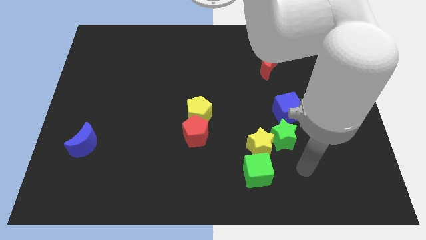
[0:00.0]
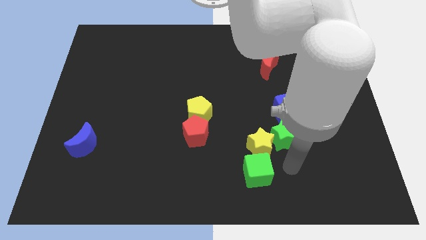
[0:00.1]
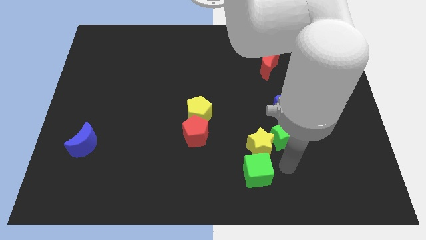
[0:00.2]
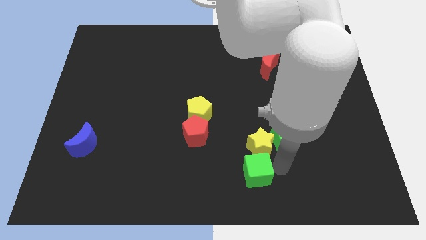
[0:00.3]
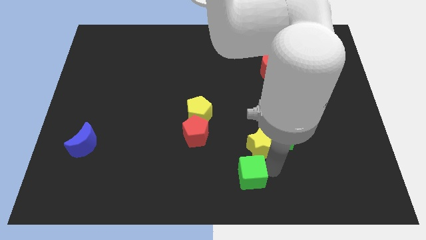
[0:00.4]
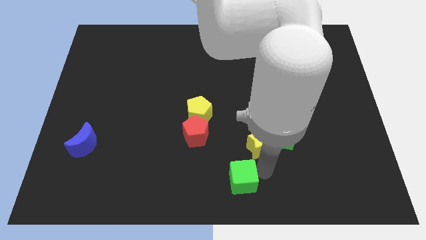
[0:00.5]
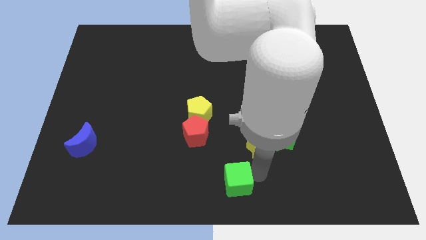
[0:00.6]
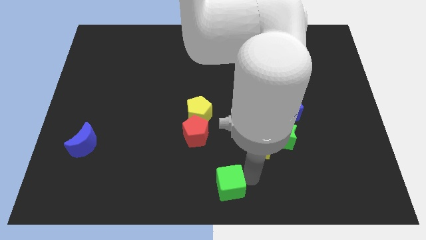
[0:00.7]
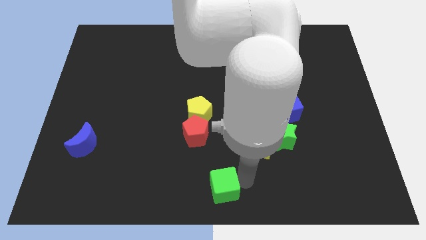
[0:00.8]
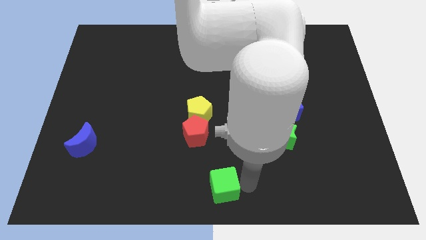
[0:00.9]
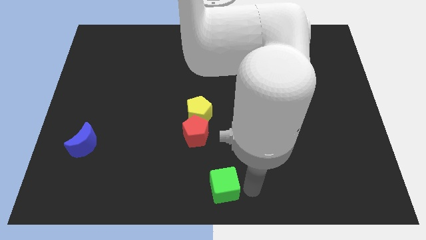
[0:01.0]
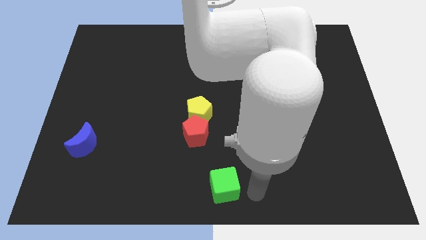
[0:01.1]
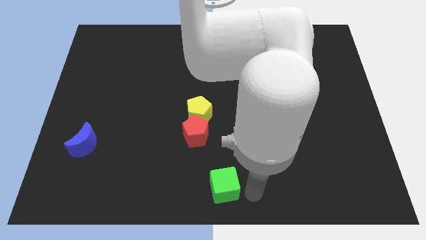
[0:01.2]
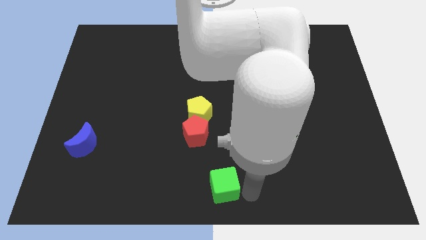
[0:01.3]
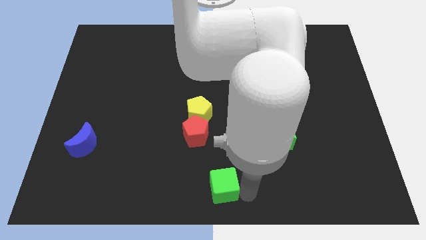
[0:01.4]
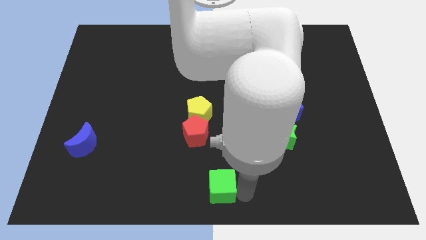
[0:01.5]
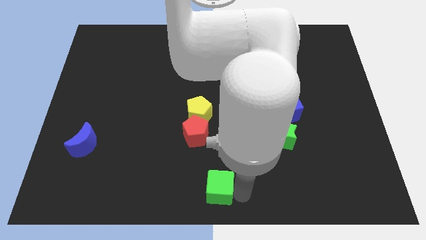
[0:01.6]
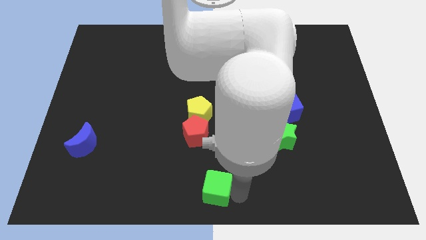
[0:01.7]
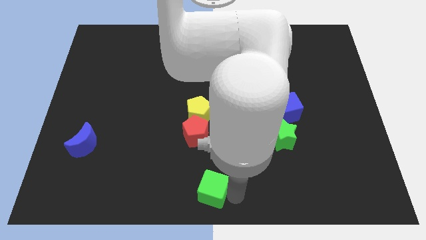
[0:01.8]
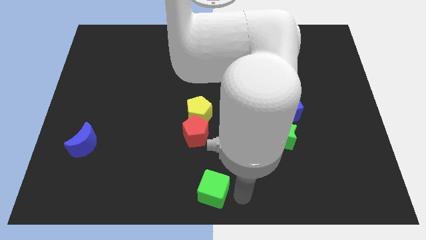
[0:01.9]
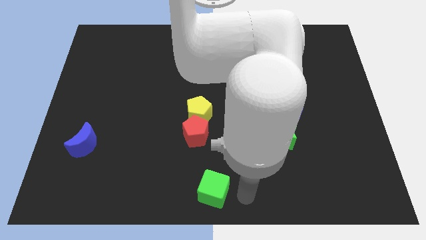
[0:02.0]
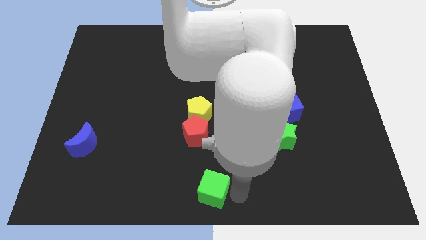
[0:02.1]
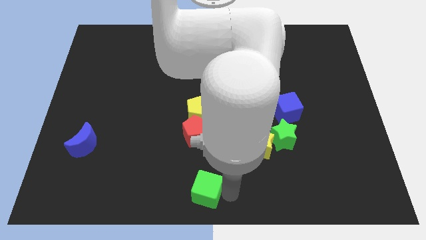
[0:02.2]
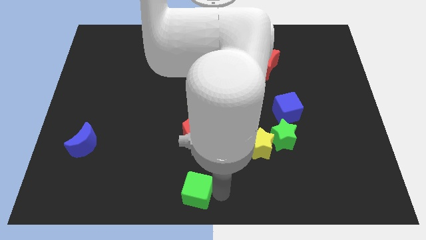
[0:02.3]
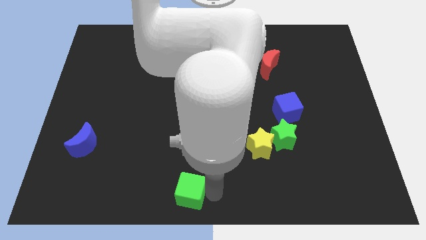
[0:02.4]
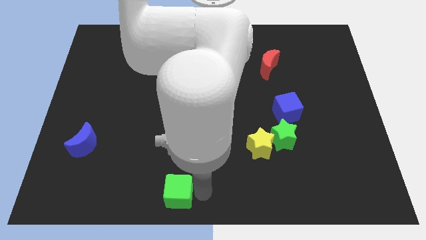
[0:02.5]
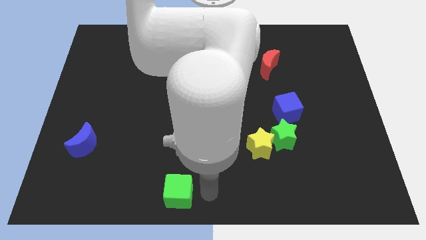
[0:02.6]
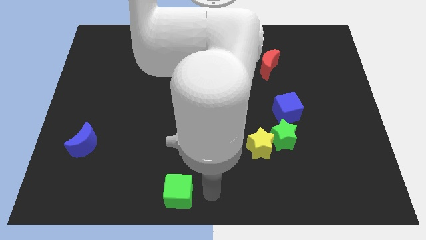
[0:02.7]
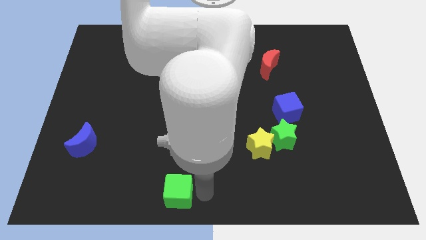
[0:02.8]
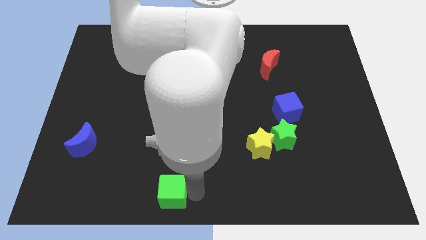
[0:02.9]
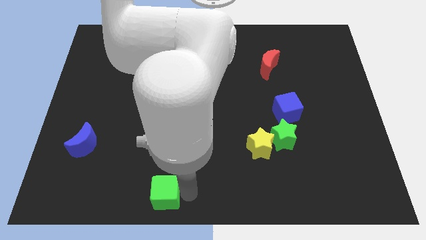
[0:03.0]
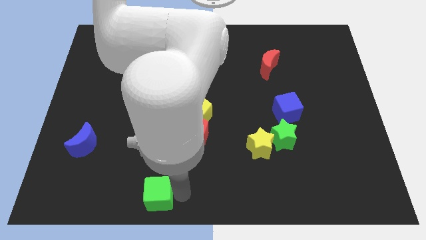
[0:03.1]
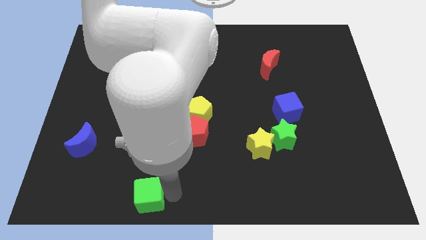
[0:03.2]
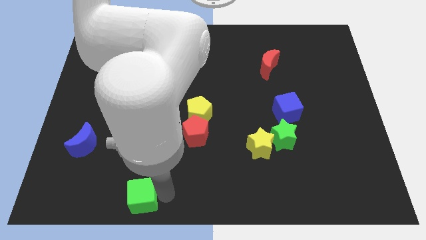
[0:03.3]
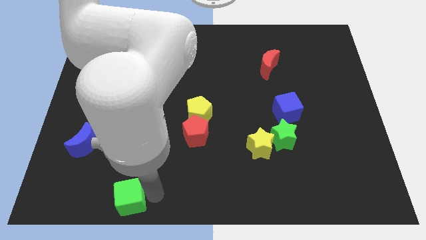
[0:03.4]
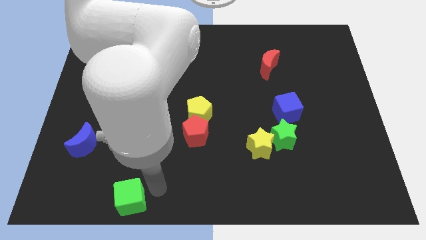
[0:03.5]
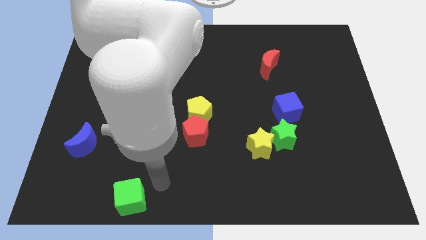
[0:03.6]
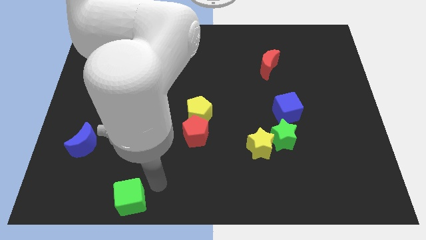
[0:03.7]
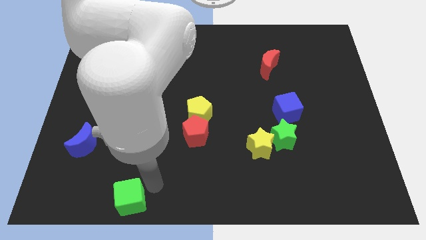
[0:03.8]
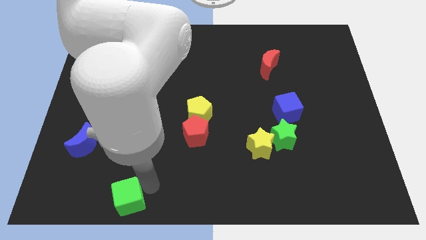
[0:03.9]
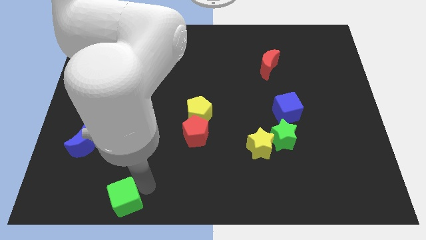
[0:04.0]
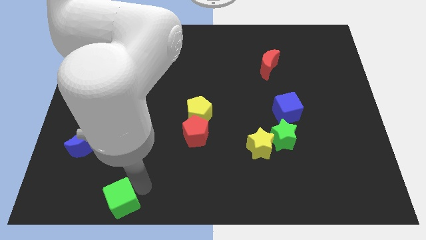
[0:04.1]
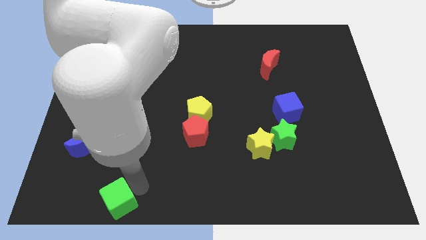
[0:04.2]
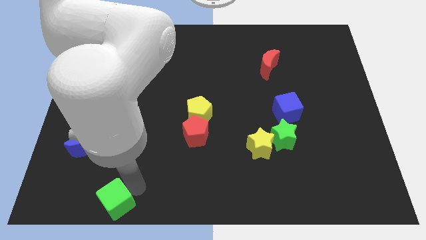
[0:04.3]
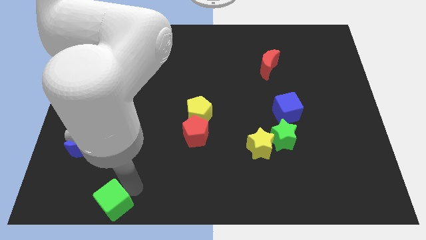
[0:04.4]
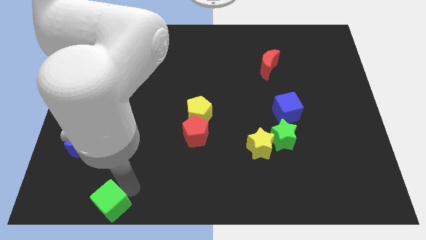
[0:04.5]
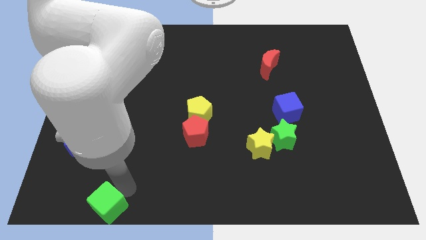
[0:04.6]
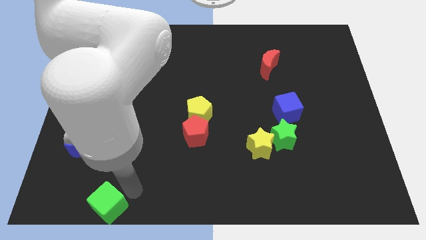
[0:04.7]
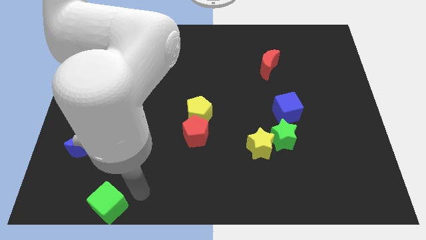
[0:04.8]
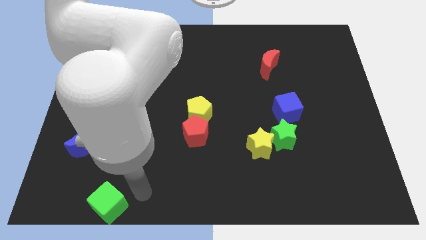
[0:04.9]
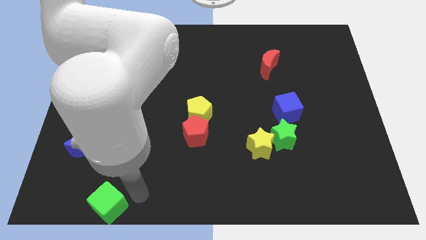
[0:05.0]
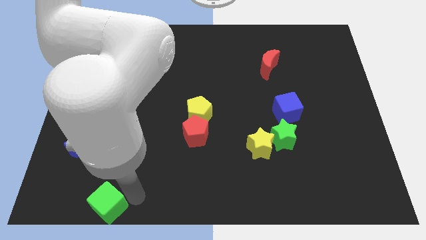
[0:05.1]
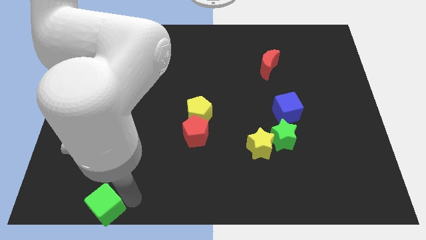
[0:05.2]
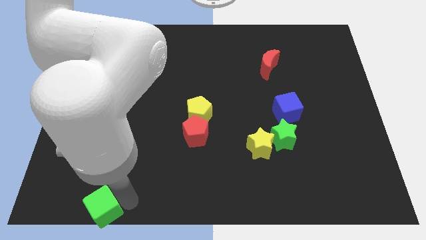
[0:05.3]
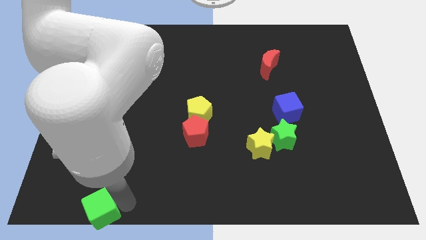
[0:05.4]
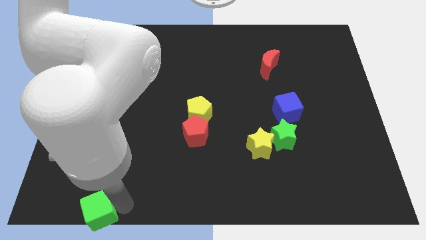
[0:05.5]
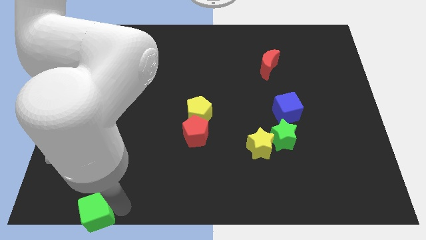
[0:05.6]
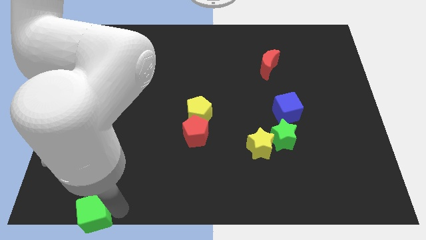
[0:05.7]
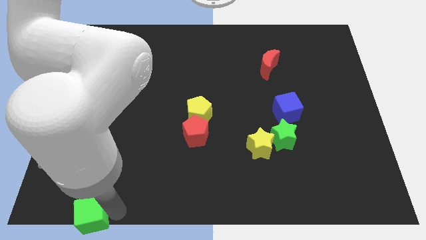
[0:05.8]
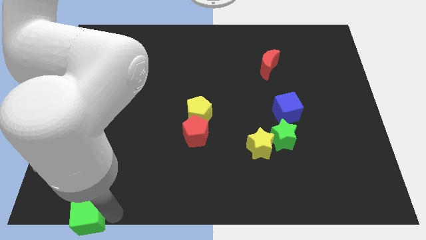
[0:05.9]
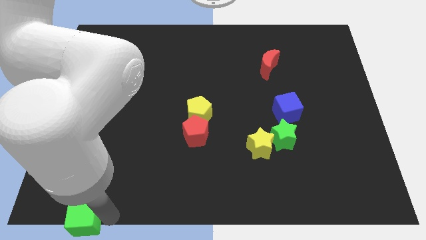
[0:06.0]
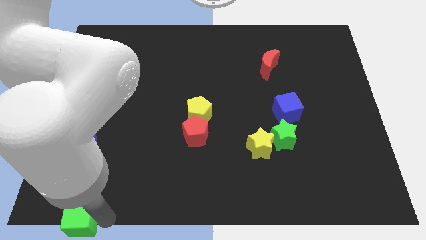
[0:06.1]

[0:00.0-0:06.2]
put the green cube to the bottom left of the board
